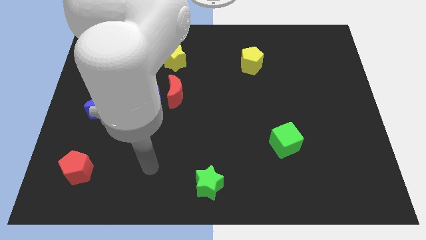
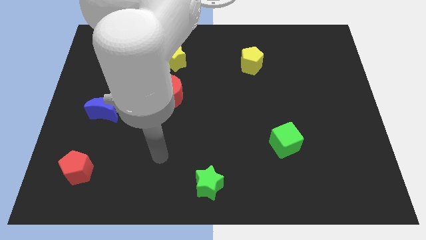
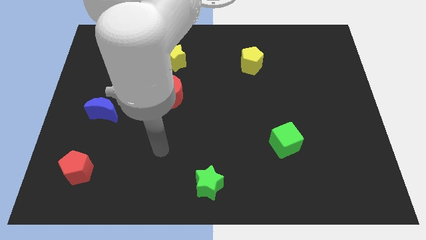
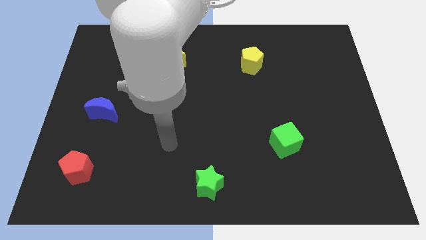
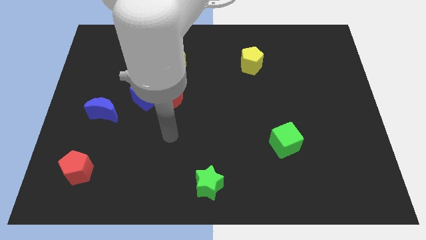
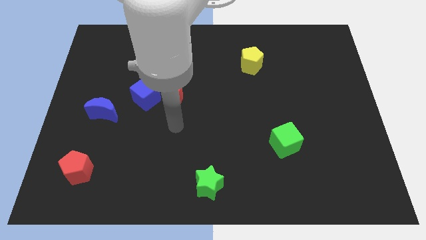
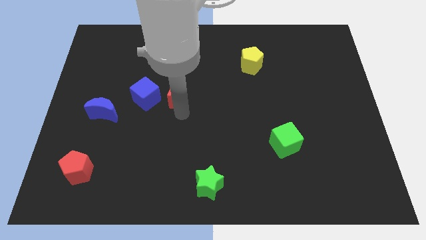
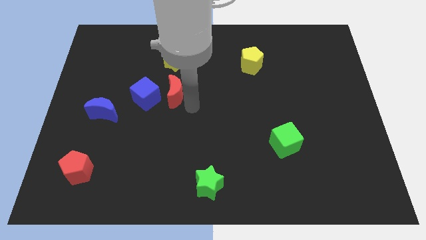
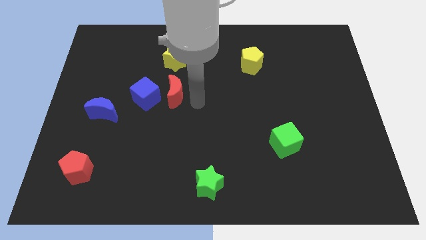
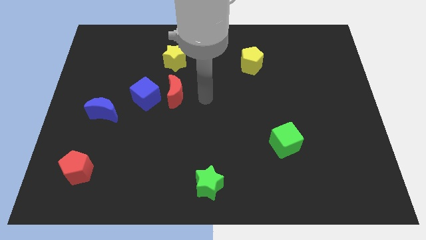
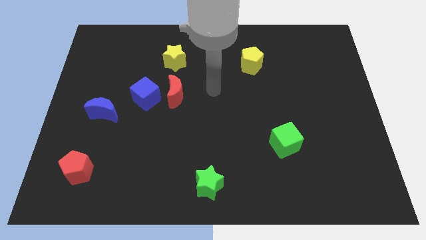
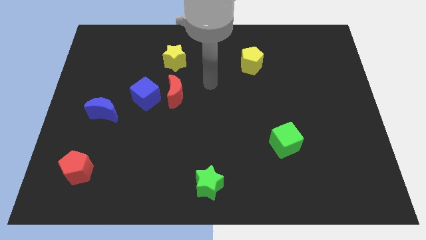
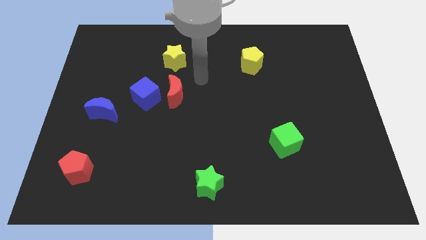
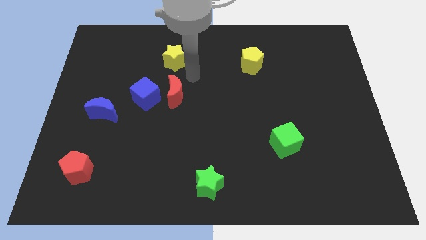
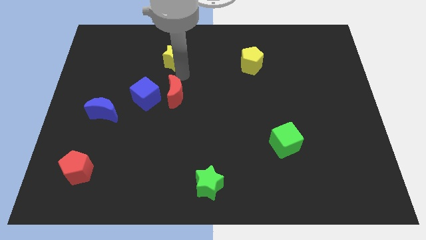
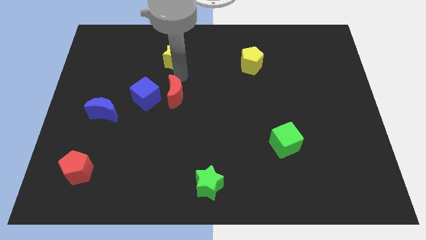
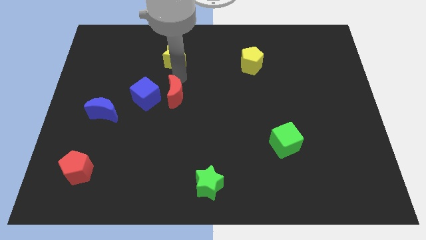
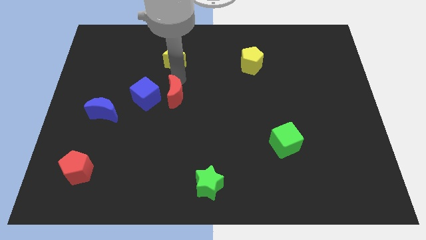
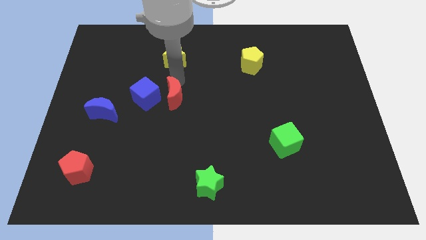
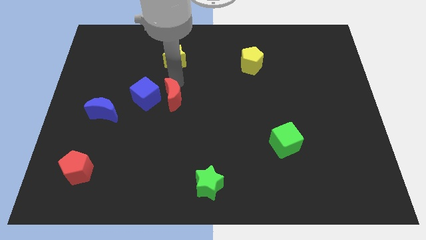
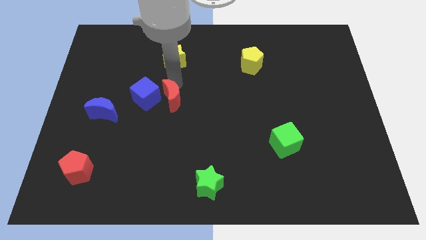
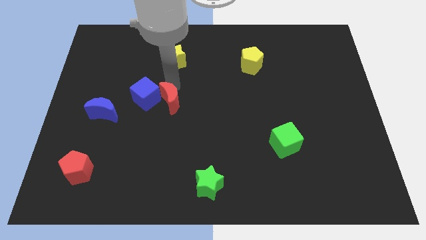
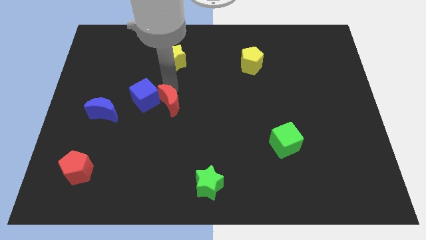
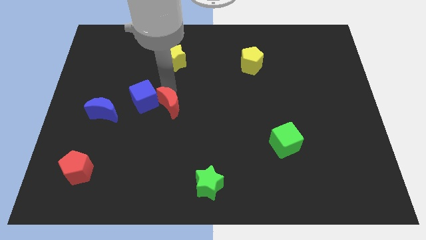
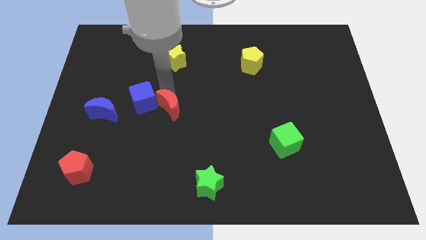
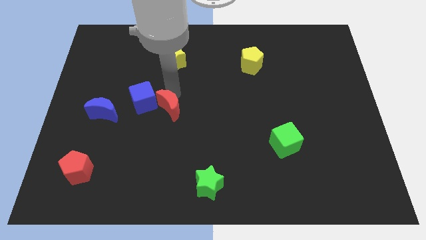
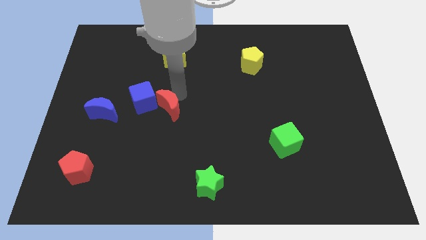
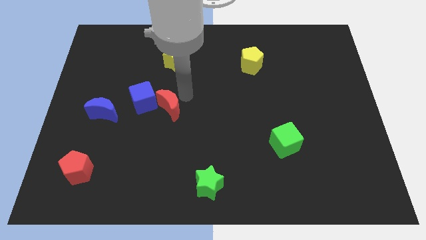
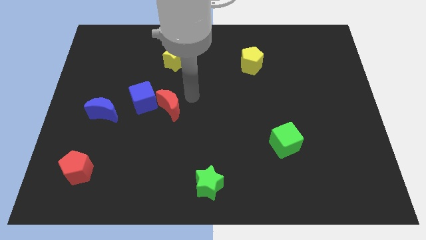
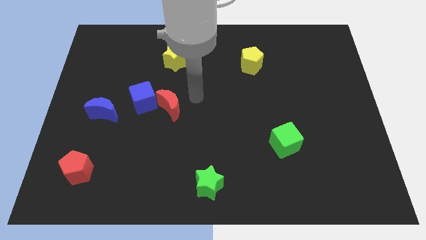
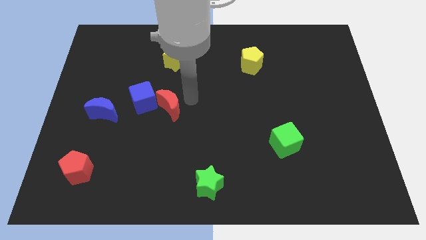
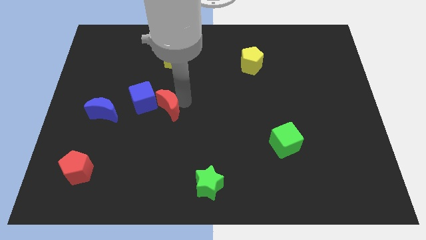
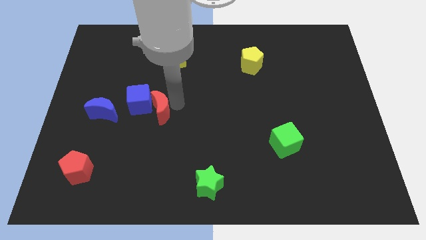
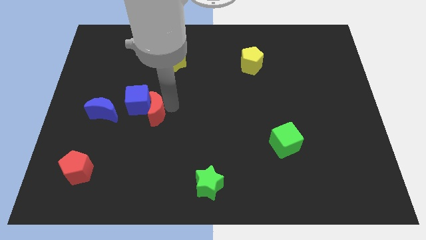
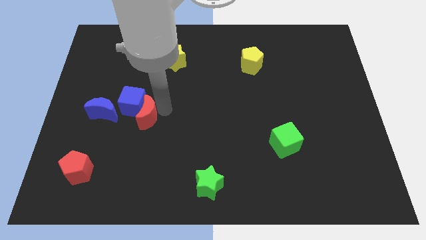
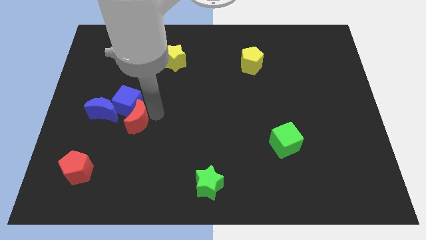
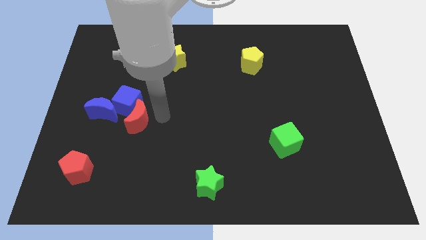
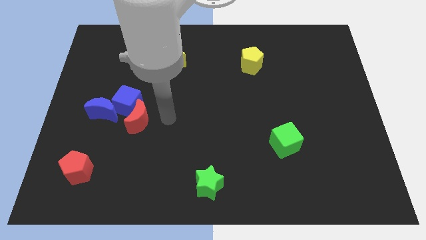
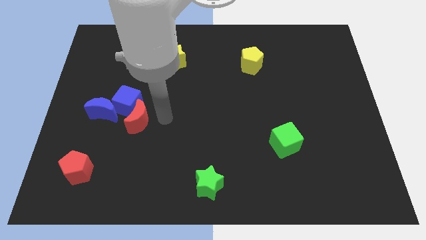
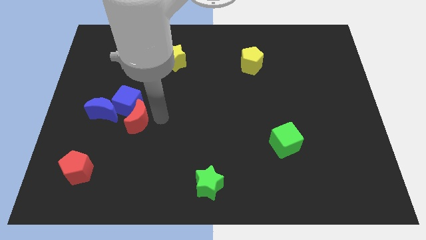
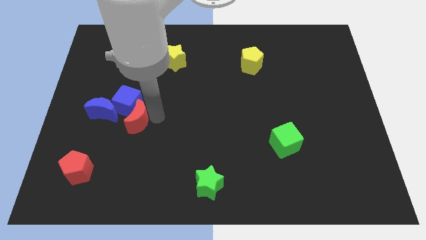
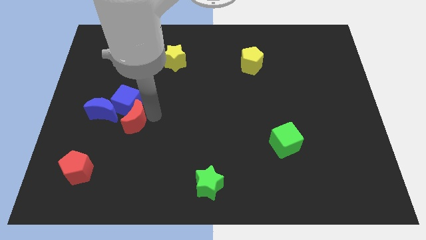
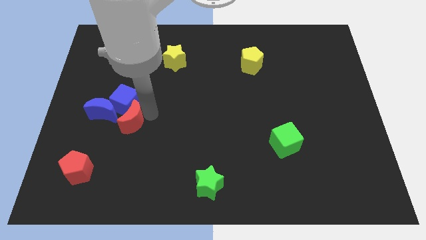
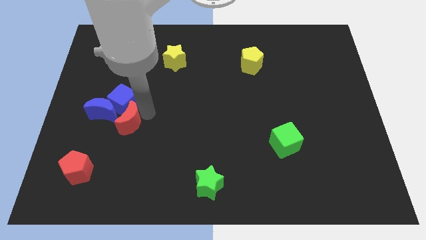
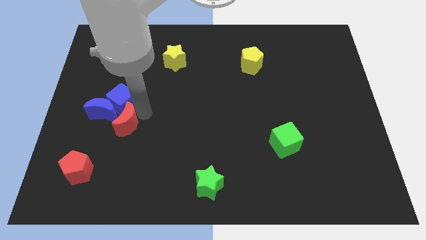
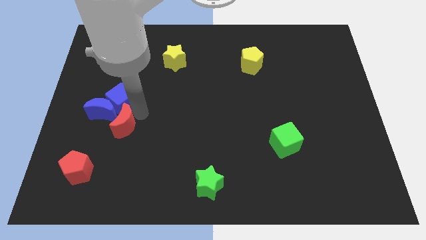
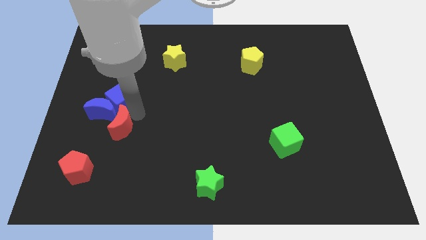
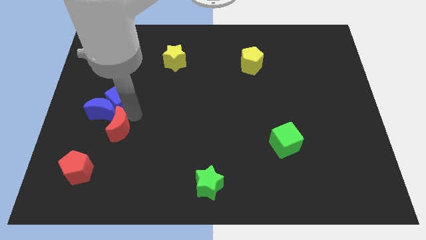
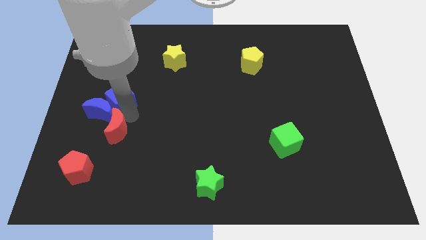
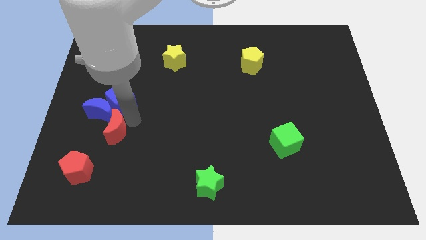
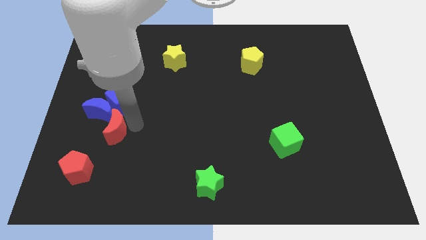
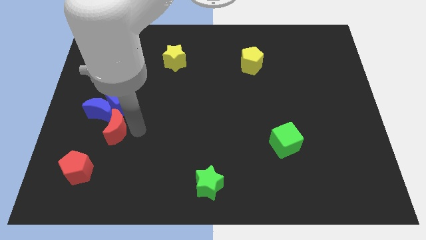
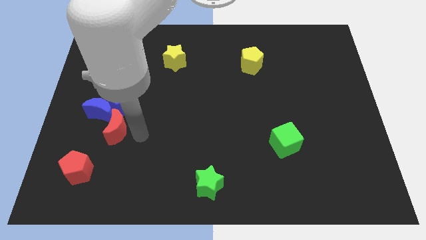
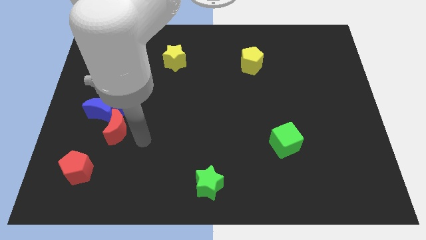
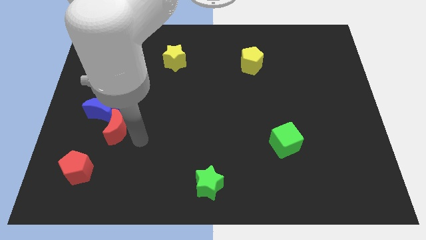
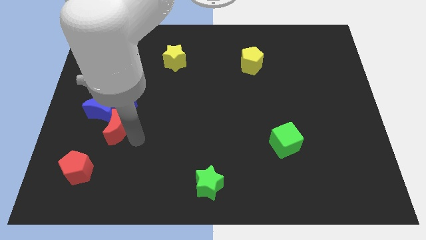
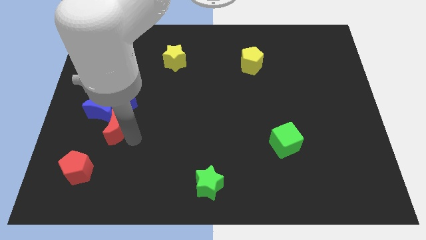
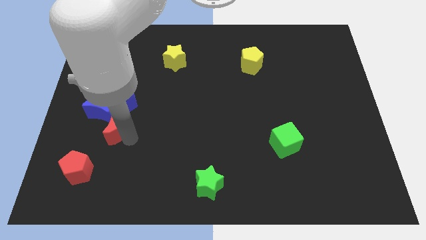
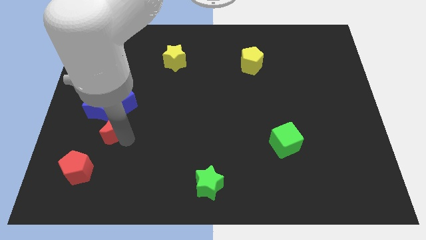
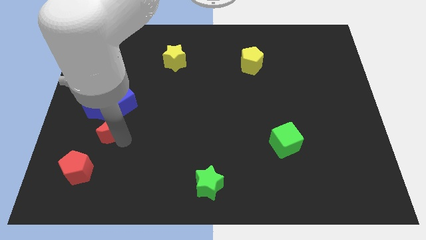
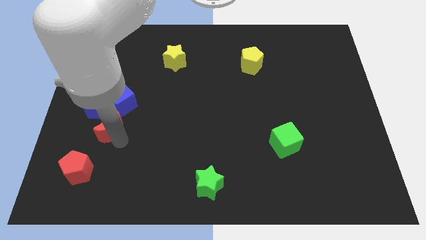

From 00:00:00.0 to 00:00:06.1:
move the red moon to the bottom left side of the blue cube
